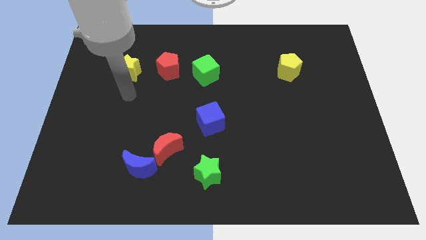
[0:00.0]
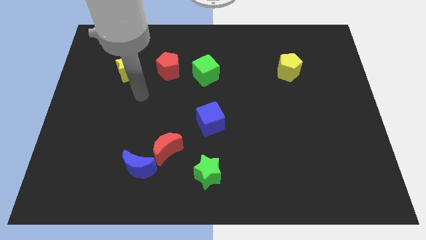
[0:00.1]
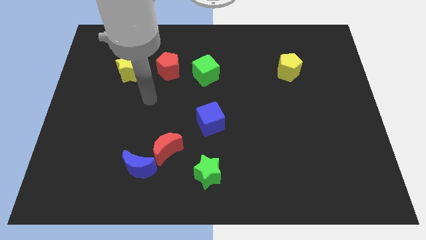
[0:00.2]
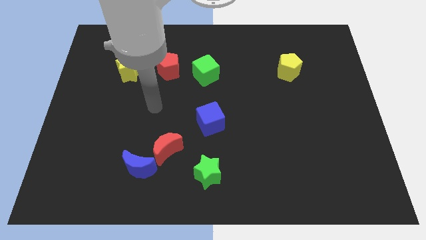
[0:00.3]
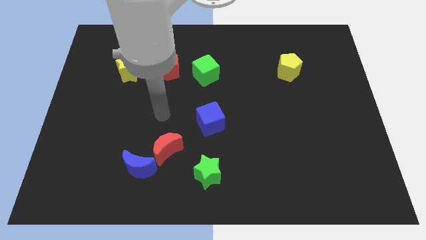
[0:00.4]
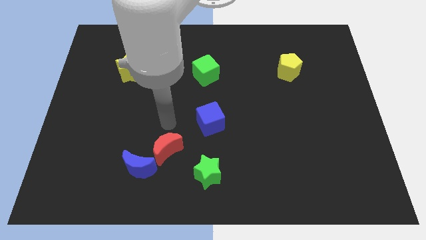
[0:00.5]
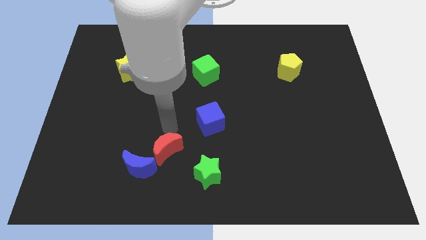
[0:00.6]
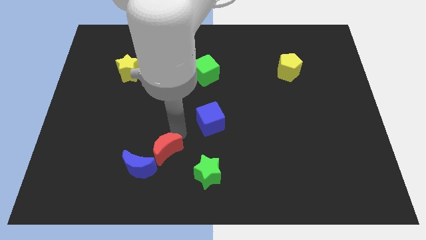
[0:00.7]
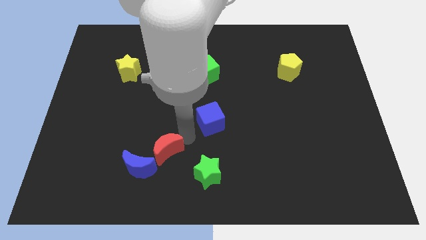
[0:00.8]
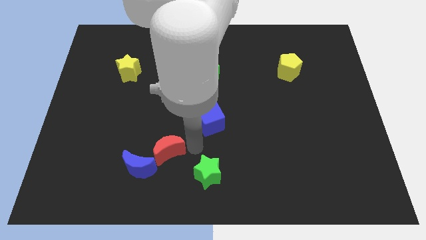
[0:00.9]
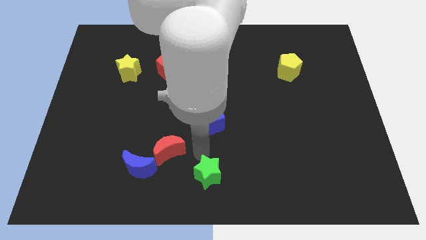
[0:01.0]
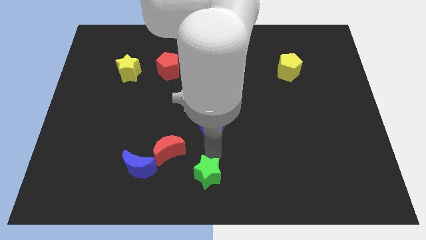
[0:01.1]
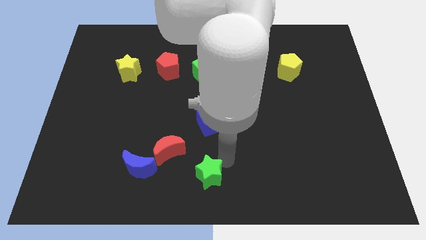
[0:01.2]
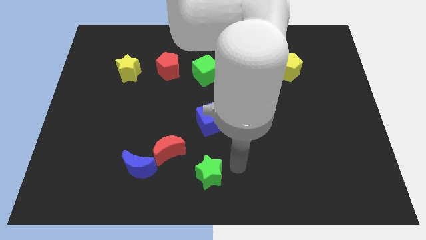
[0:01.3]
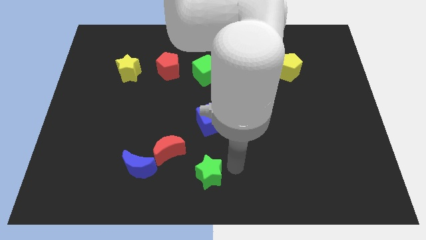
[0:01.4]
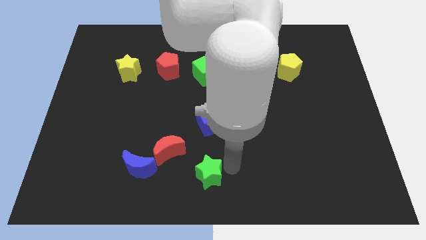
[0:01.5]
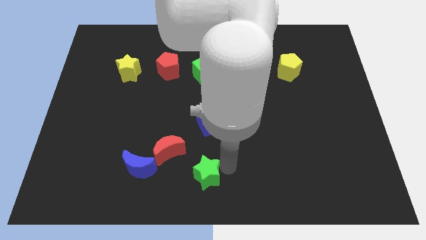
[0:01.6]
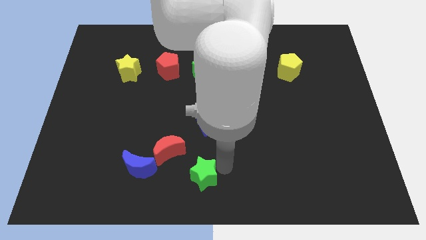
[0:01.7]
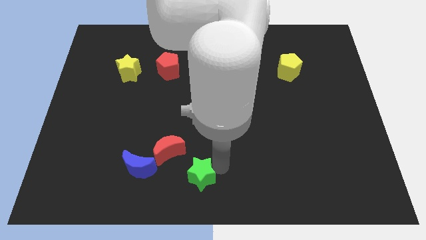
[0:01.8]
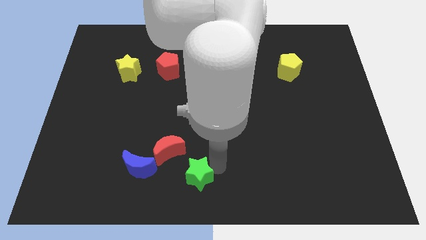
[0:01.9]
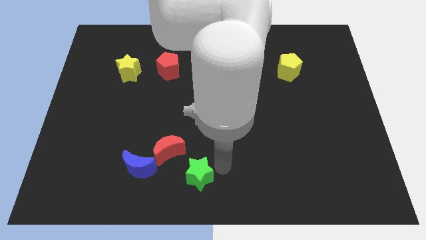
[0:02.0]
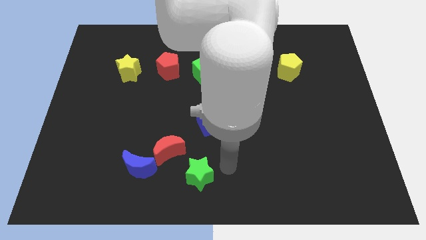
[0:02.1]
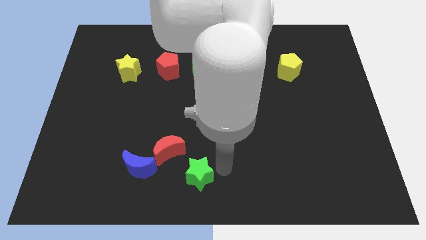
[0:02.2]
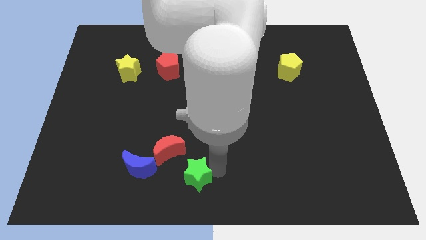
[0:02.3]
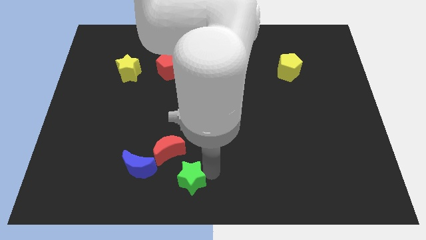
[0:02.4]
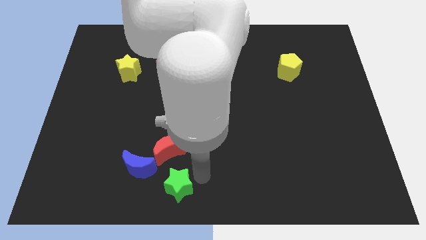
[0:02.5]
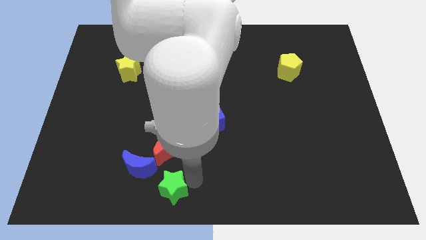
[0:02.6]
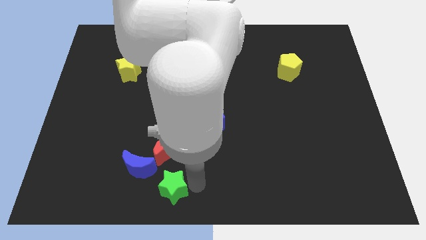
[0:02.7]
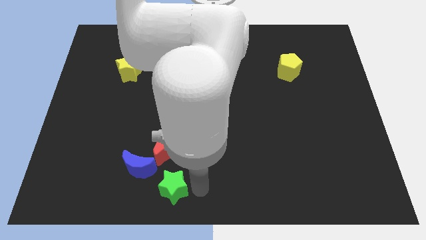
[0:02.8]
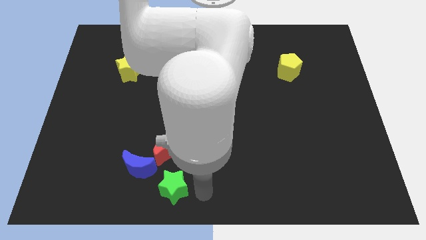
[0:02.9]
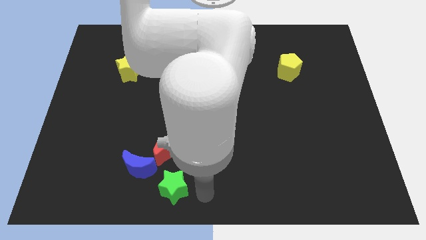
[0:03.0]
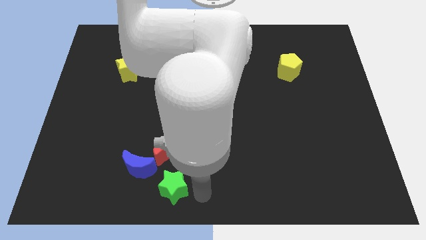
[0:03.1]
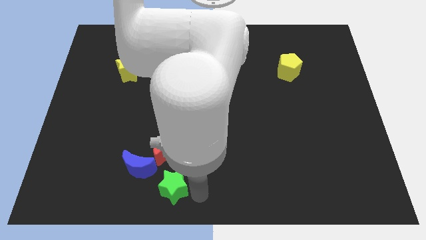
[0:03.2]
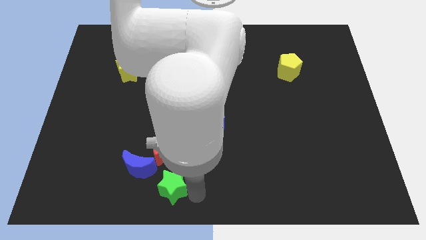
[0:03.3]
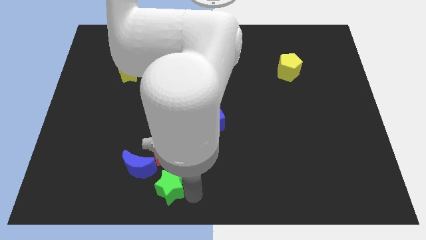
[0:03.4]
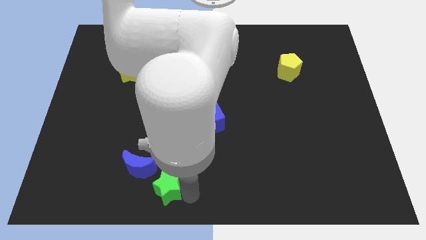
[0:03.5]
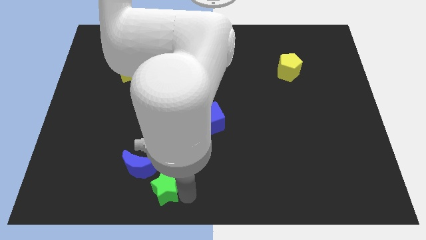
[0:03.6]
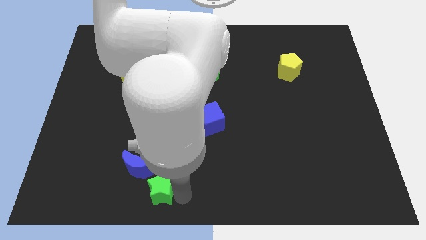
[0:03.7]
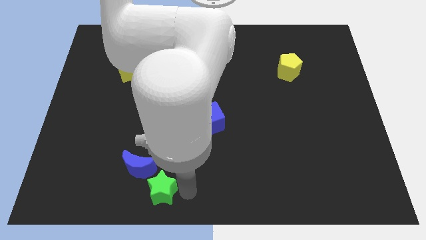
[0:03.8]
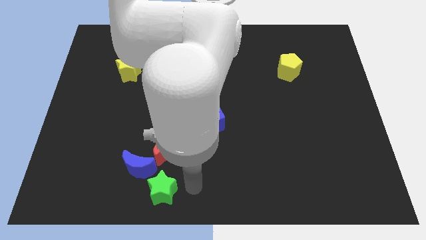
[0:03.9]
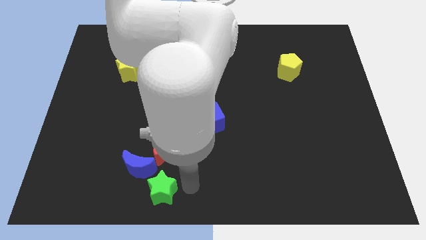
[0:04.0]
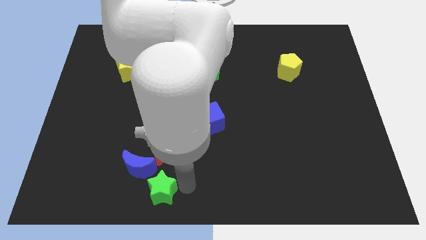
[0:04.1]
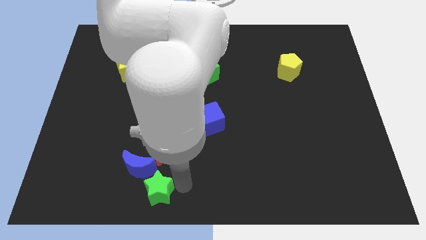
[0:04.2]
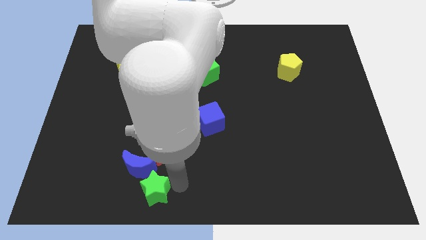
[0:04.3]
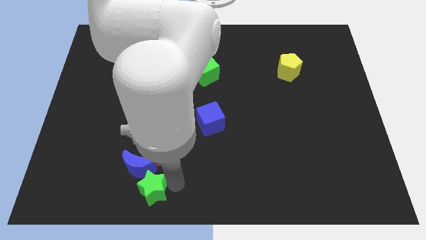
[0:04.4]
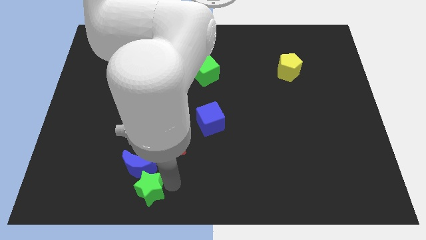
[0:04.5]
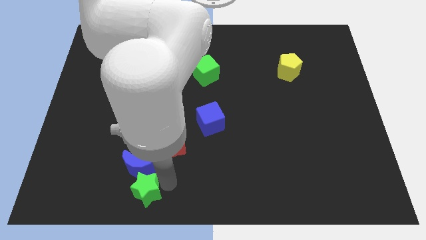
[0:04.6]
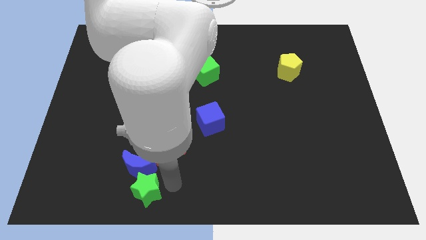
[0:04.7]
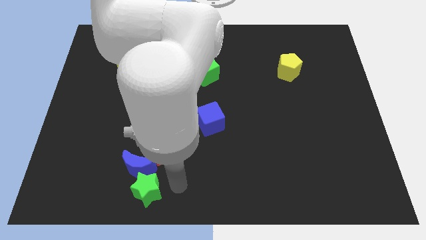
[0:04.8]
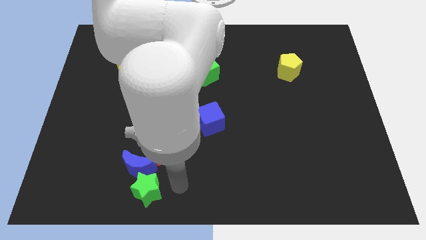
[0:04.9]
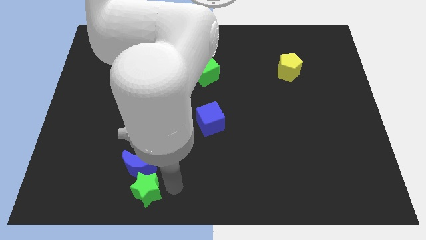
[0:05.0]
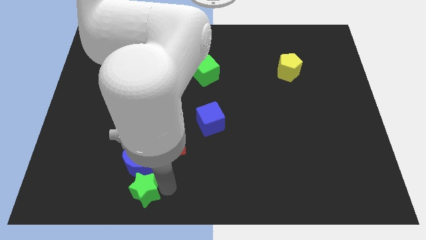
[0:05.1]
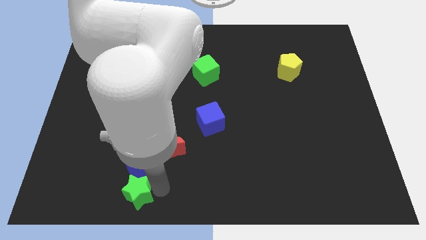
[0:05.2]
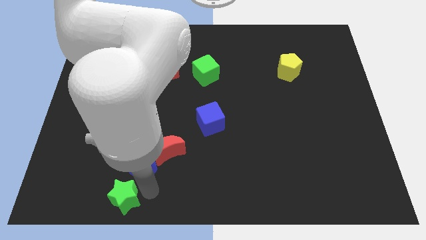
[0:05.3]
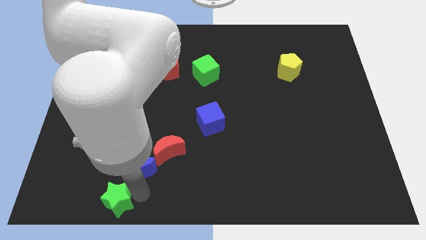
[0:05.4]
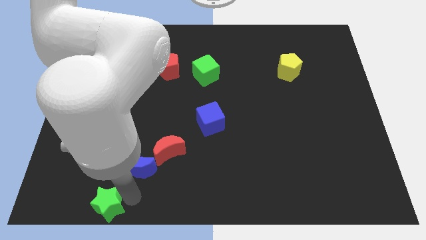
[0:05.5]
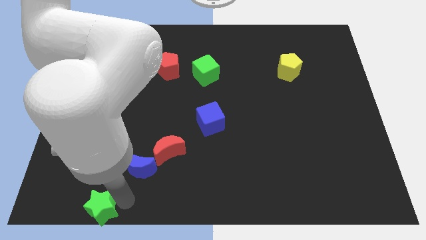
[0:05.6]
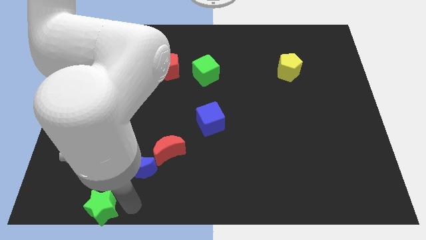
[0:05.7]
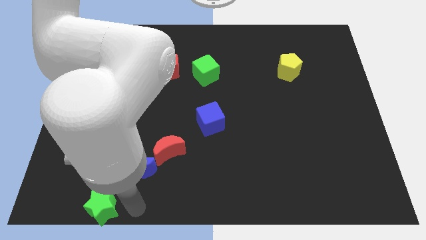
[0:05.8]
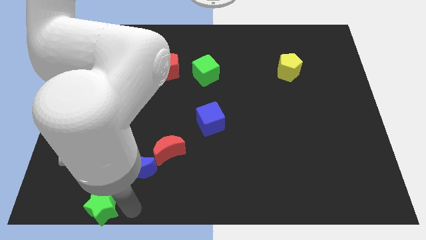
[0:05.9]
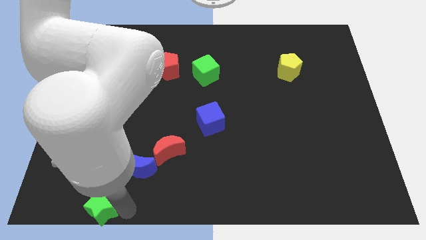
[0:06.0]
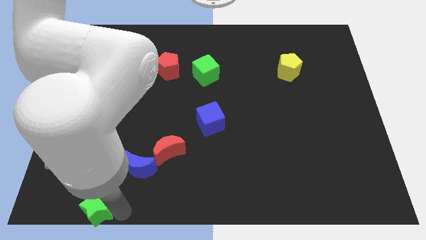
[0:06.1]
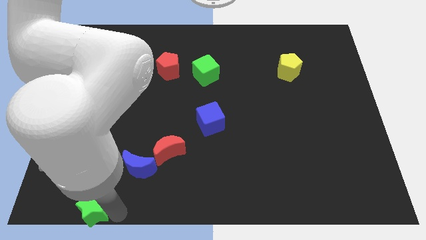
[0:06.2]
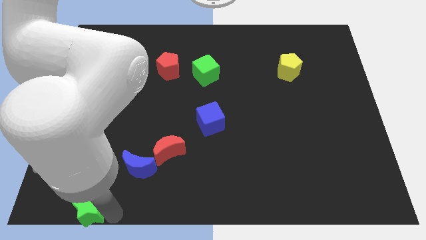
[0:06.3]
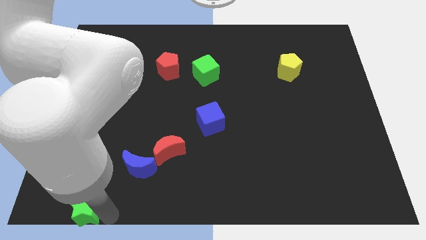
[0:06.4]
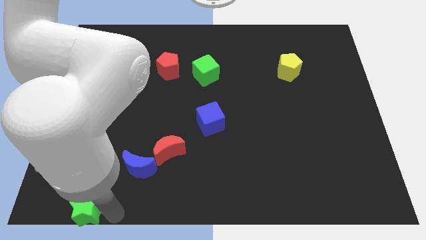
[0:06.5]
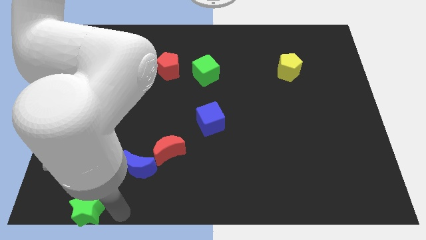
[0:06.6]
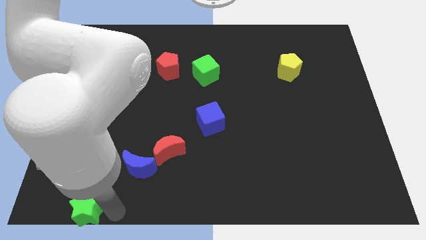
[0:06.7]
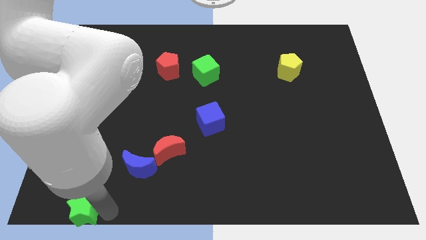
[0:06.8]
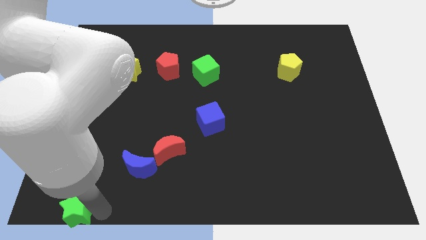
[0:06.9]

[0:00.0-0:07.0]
put the green star to the bottom left corner
